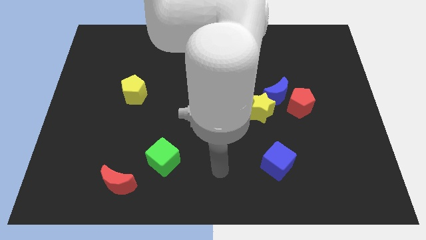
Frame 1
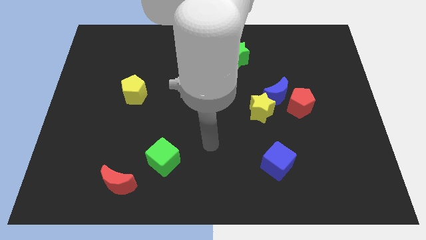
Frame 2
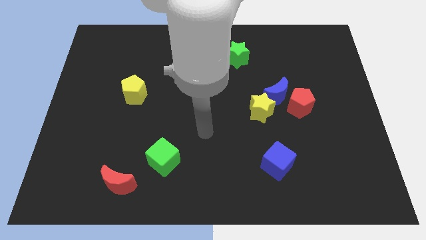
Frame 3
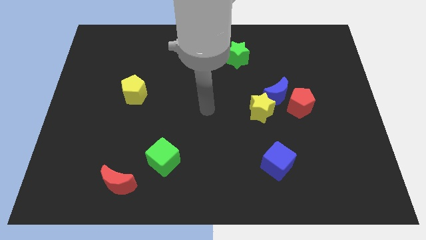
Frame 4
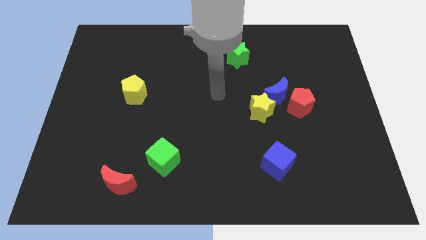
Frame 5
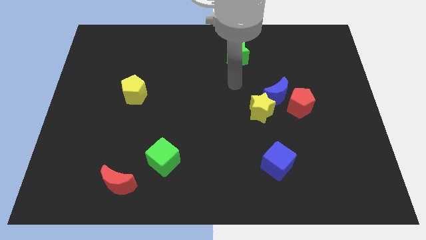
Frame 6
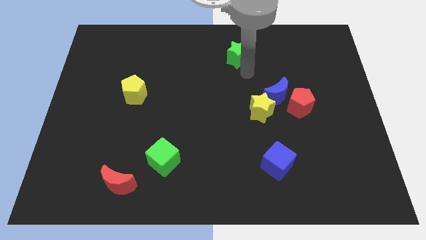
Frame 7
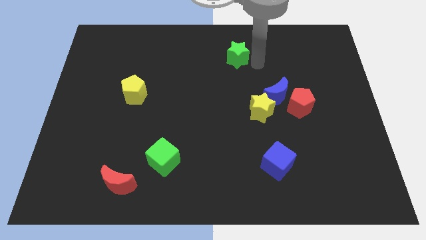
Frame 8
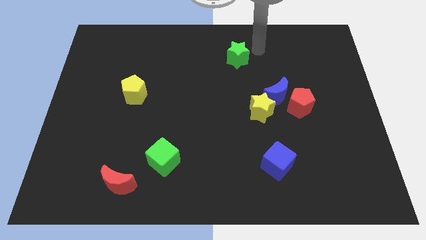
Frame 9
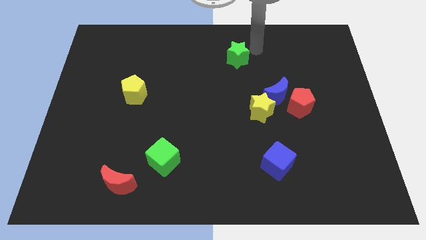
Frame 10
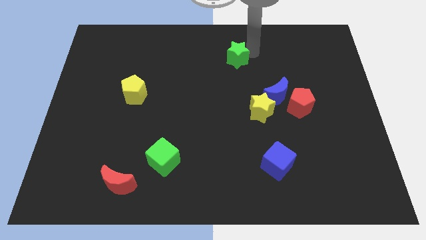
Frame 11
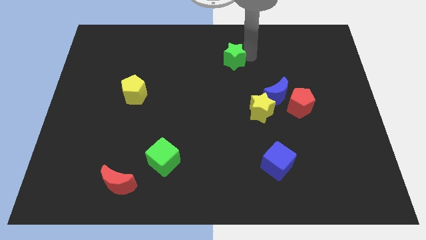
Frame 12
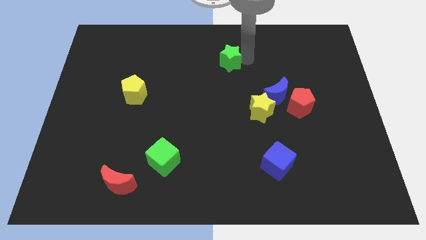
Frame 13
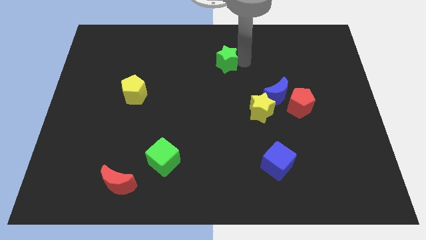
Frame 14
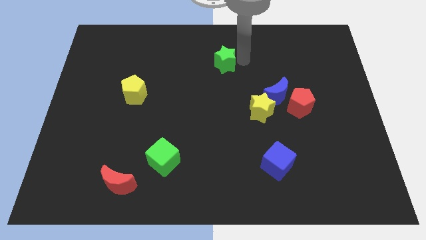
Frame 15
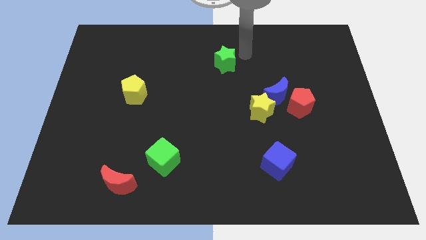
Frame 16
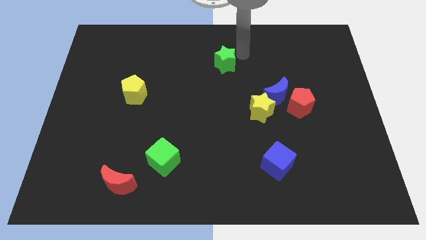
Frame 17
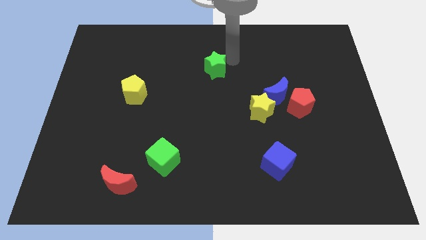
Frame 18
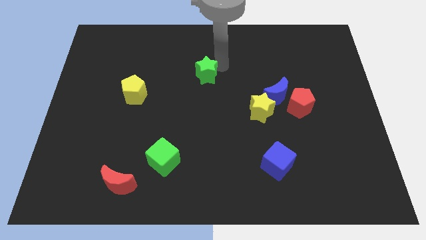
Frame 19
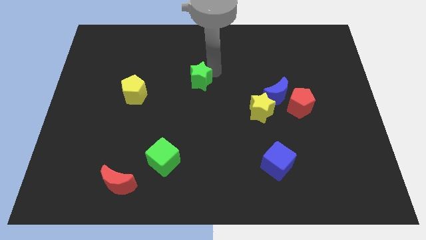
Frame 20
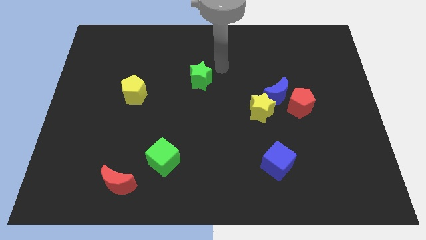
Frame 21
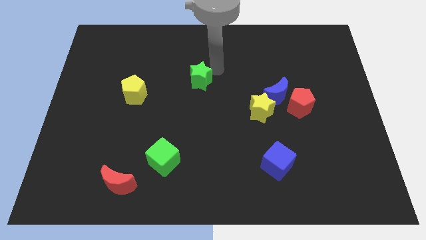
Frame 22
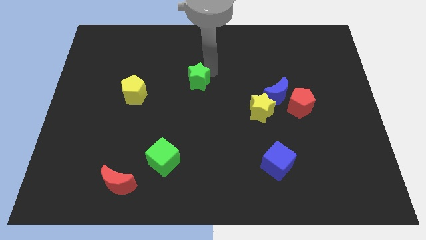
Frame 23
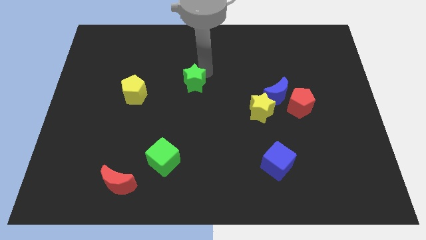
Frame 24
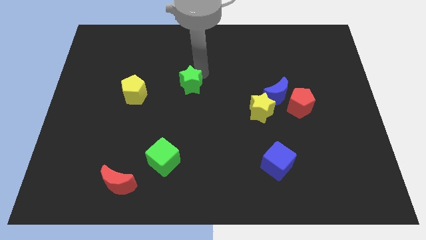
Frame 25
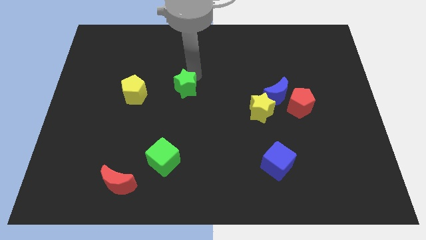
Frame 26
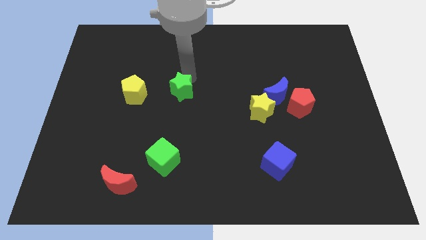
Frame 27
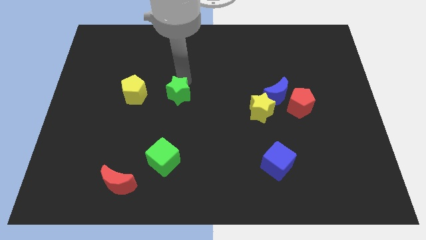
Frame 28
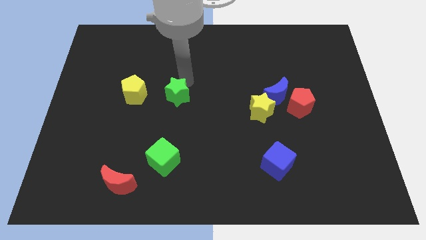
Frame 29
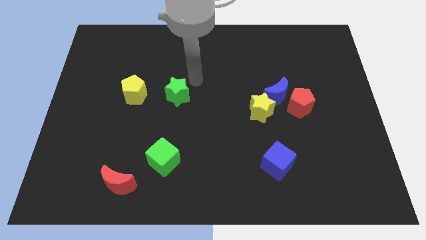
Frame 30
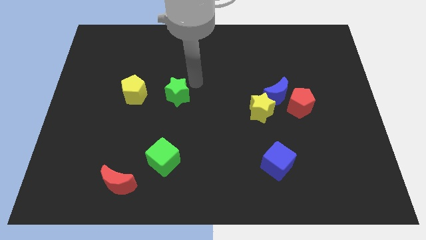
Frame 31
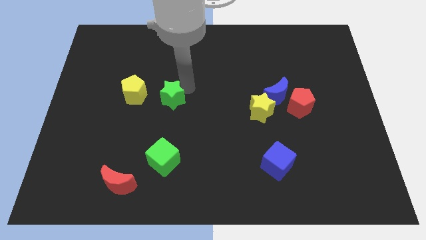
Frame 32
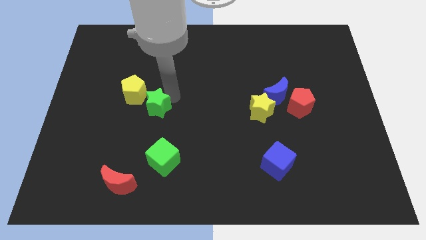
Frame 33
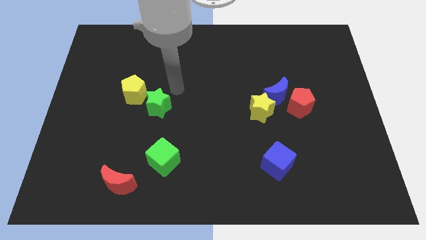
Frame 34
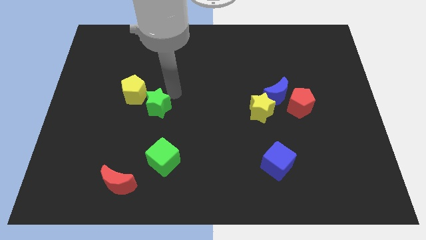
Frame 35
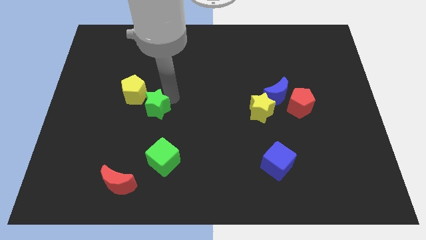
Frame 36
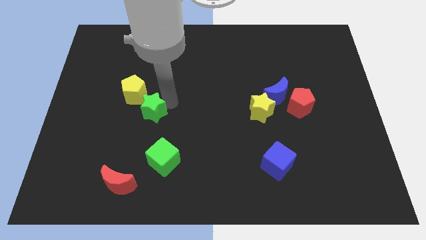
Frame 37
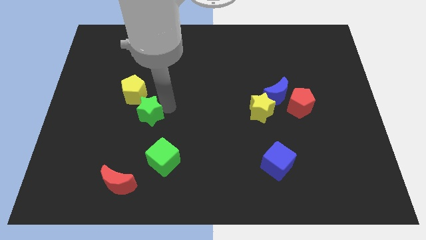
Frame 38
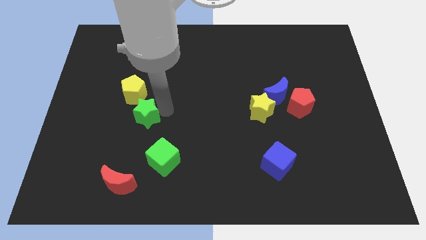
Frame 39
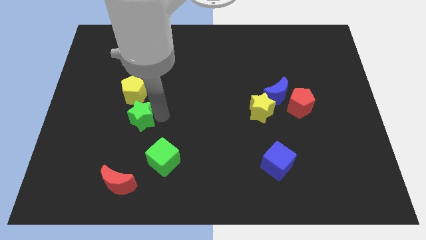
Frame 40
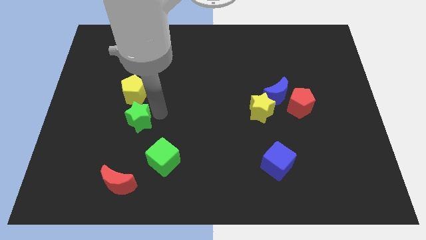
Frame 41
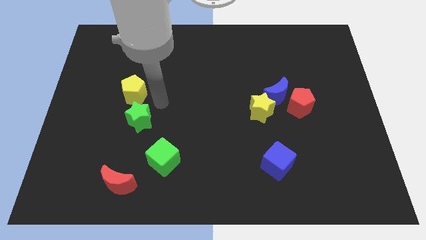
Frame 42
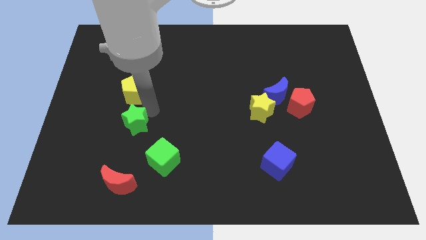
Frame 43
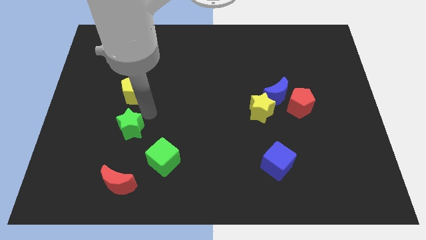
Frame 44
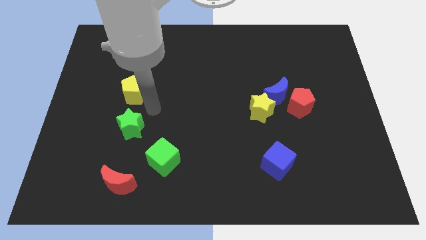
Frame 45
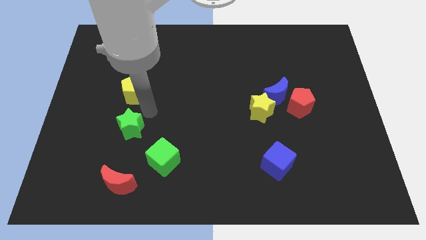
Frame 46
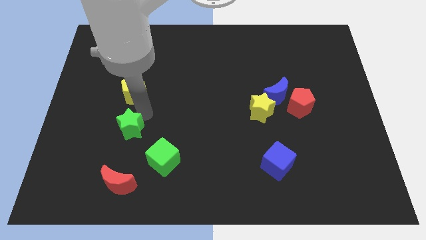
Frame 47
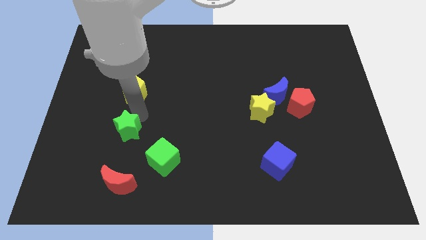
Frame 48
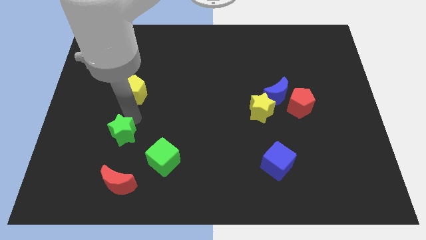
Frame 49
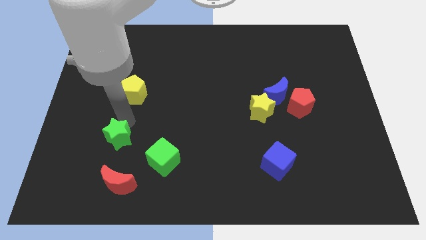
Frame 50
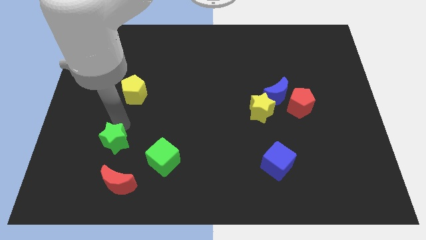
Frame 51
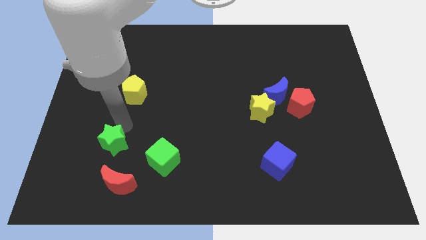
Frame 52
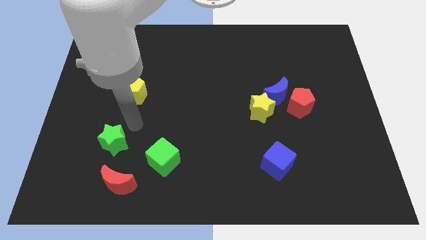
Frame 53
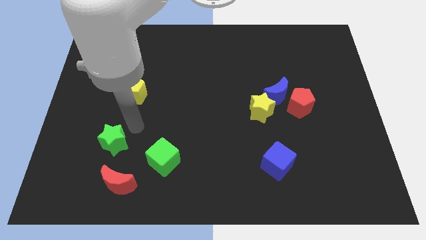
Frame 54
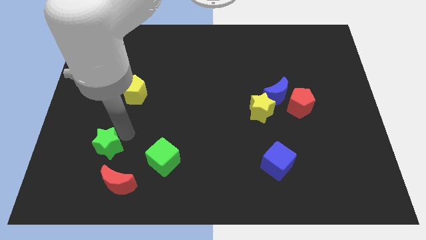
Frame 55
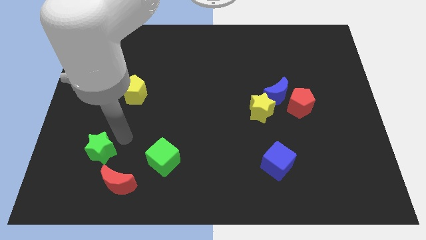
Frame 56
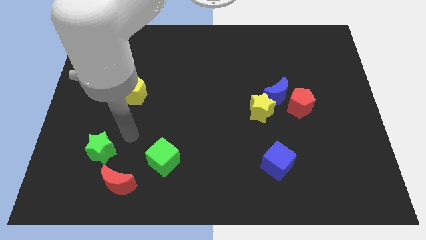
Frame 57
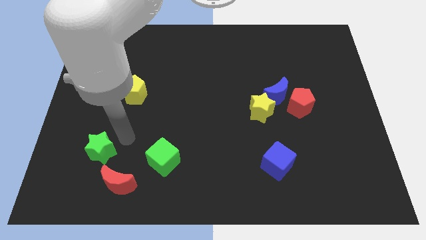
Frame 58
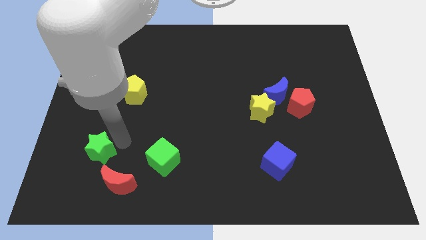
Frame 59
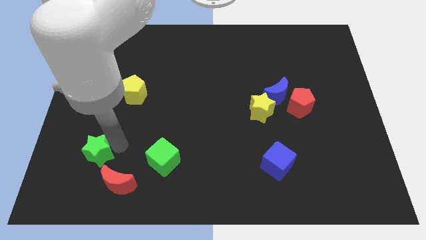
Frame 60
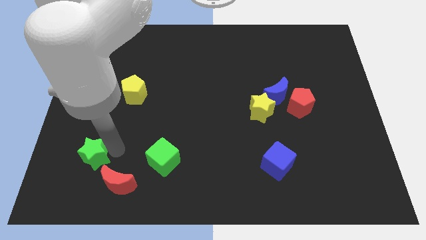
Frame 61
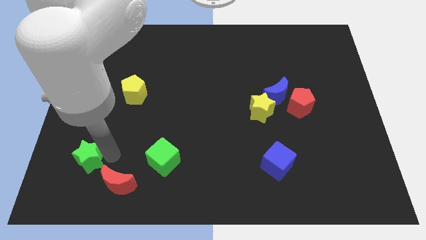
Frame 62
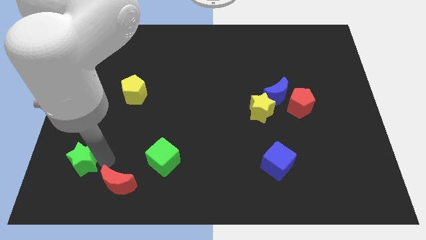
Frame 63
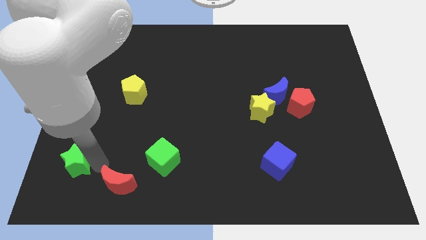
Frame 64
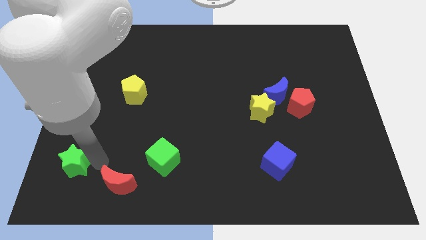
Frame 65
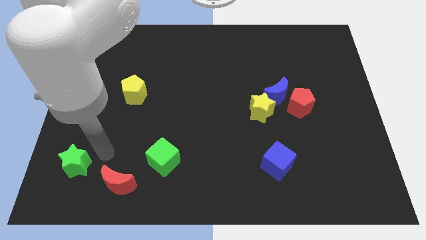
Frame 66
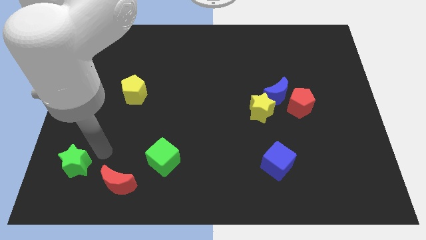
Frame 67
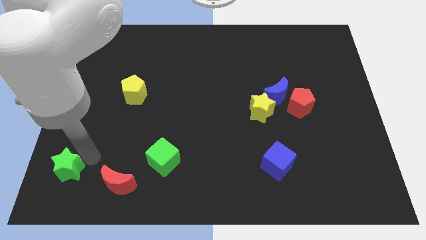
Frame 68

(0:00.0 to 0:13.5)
slide the green star to the bottom left
